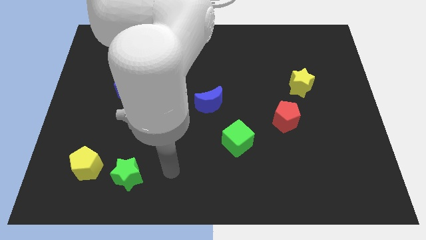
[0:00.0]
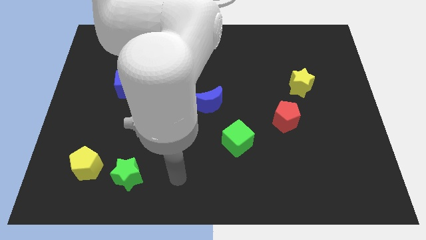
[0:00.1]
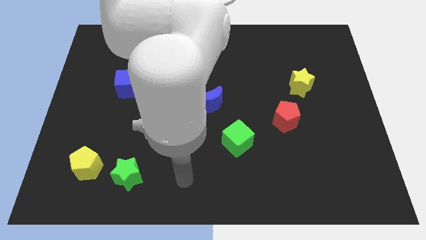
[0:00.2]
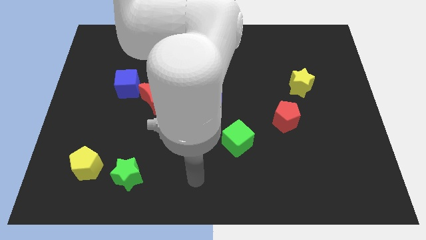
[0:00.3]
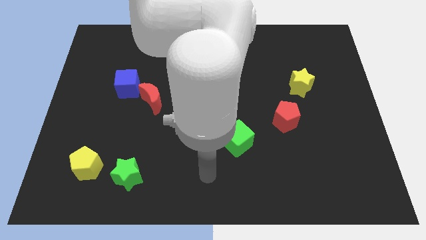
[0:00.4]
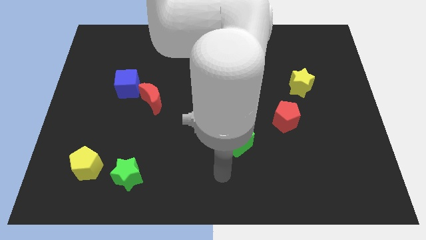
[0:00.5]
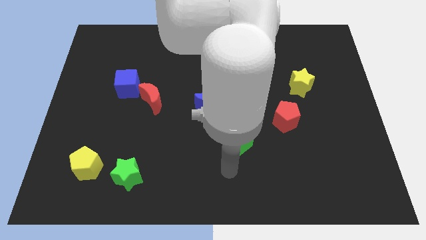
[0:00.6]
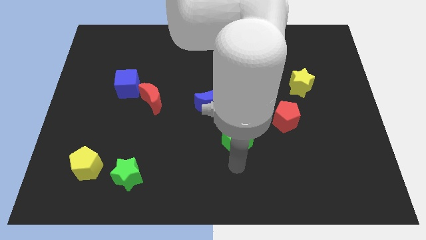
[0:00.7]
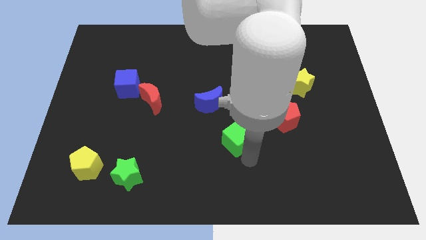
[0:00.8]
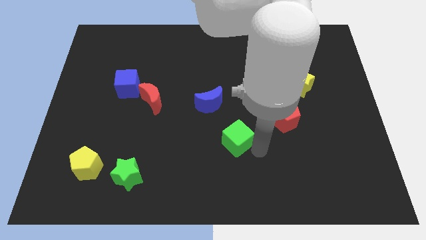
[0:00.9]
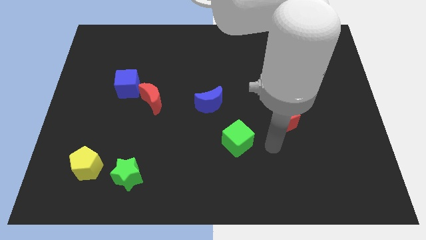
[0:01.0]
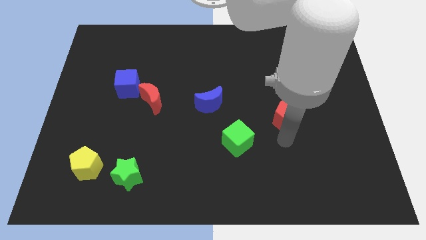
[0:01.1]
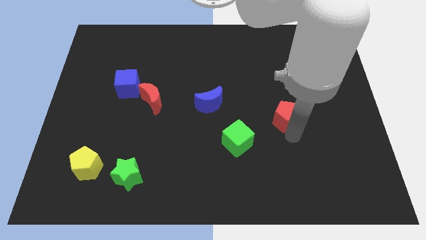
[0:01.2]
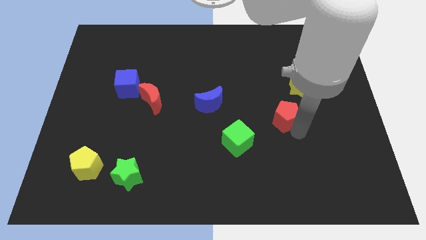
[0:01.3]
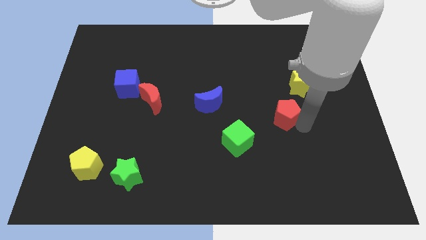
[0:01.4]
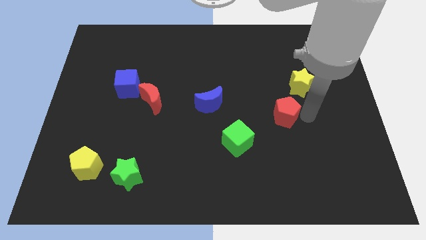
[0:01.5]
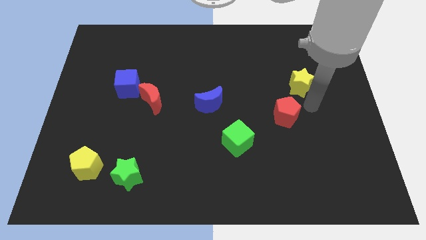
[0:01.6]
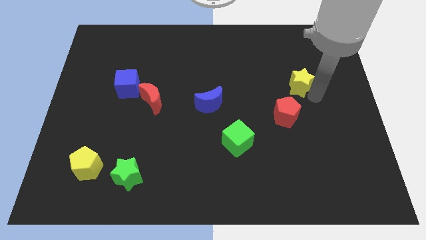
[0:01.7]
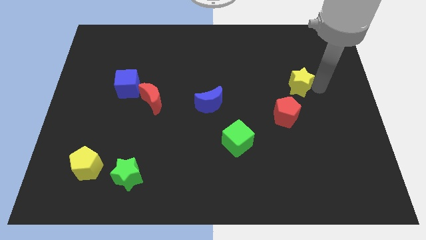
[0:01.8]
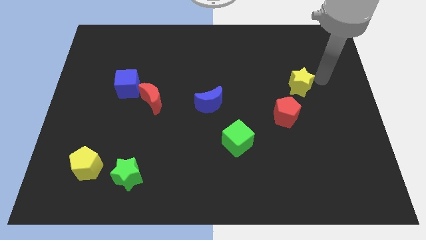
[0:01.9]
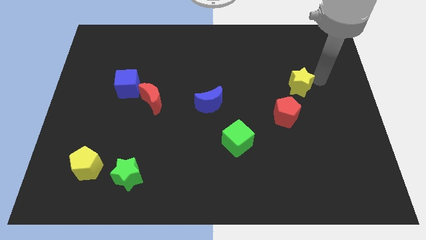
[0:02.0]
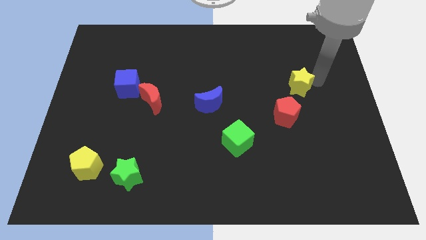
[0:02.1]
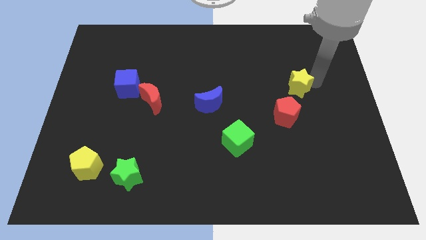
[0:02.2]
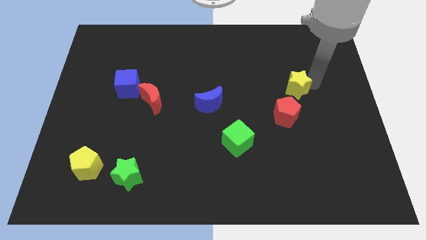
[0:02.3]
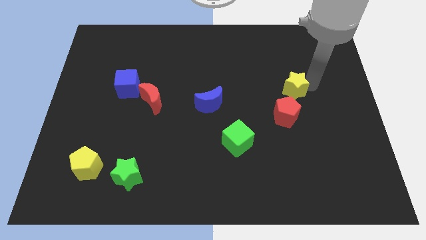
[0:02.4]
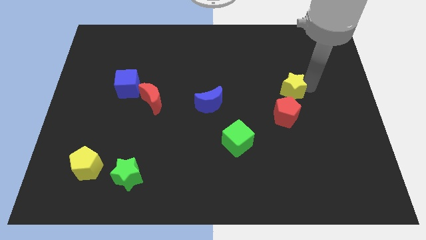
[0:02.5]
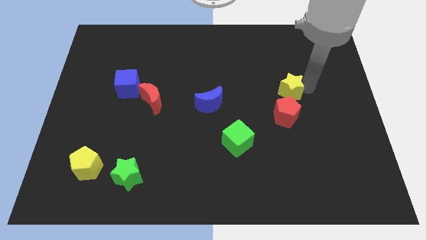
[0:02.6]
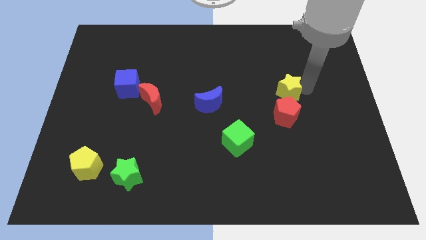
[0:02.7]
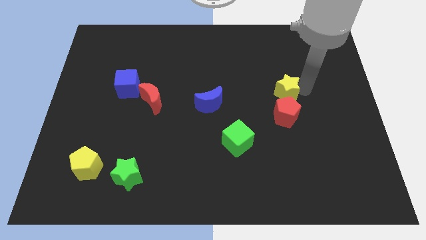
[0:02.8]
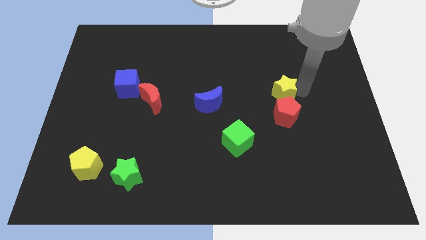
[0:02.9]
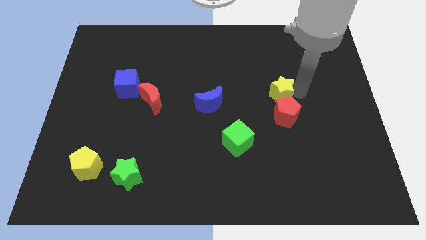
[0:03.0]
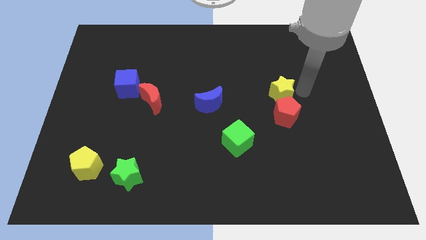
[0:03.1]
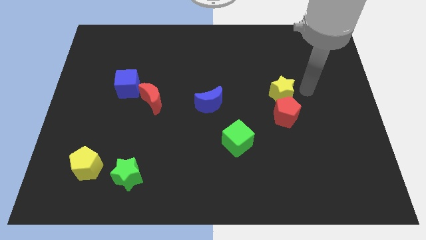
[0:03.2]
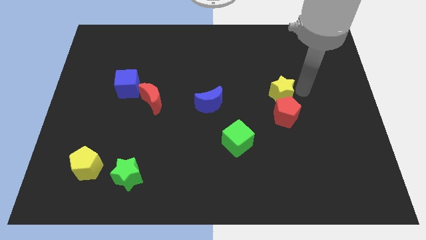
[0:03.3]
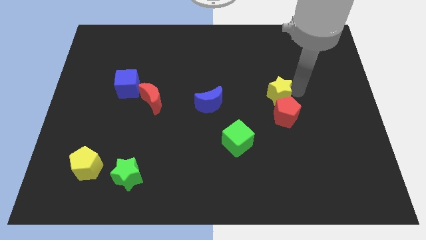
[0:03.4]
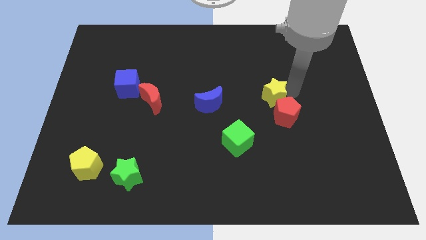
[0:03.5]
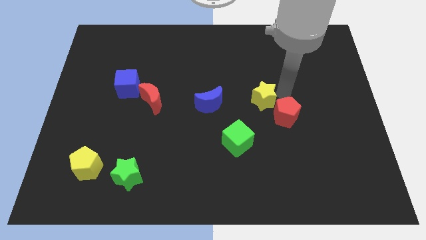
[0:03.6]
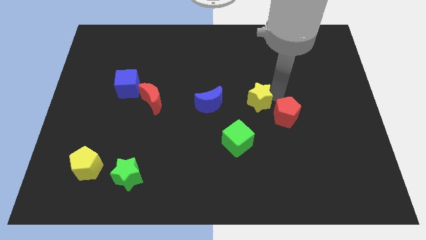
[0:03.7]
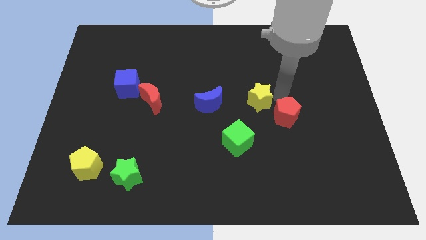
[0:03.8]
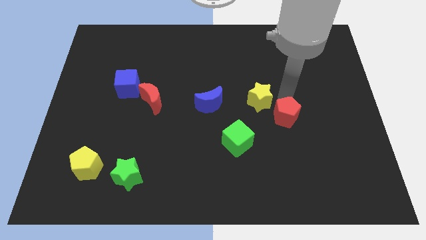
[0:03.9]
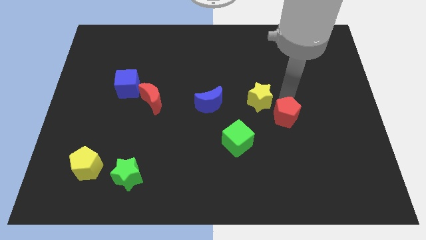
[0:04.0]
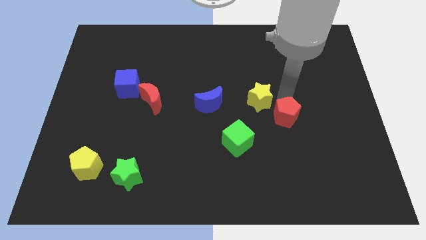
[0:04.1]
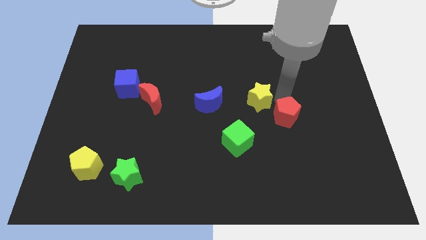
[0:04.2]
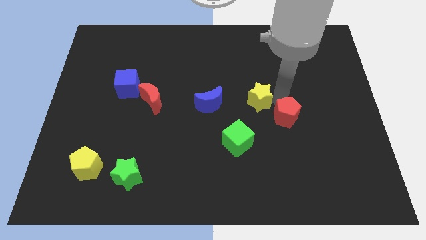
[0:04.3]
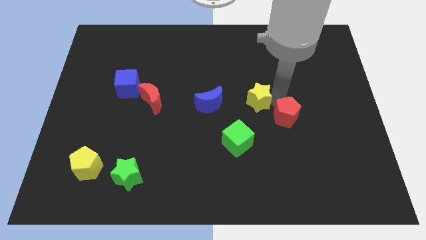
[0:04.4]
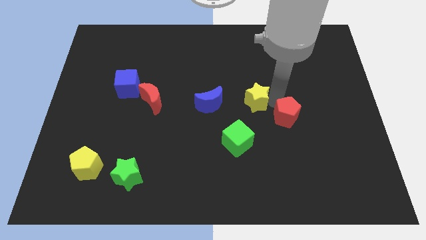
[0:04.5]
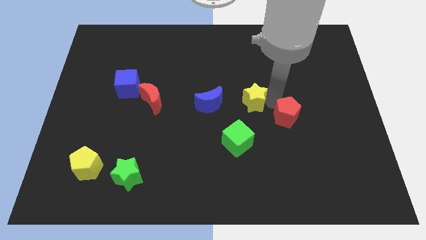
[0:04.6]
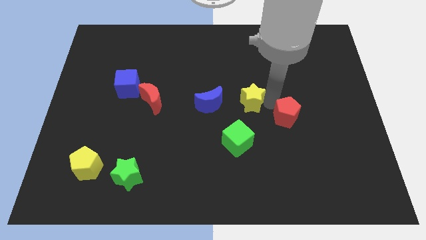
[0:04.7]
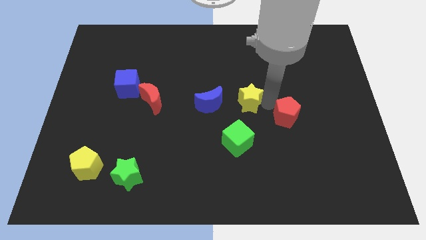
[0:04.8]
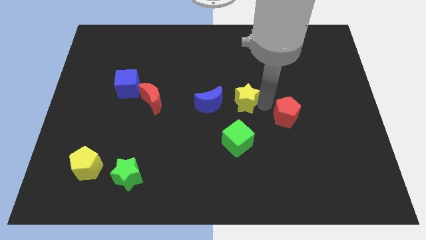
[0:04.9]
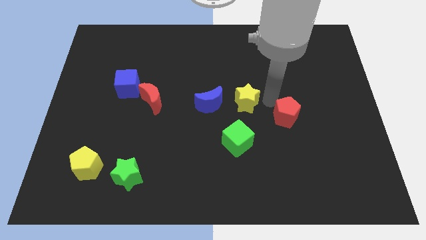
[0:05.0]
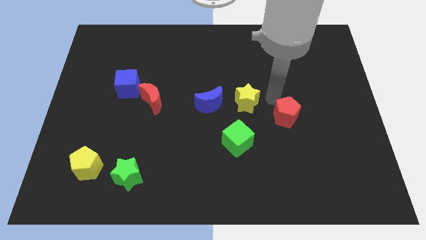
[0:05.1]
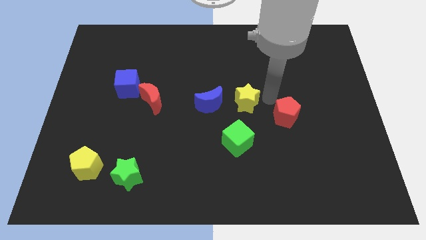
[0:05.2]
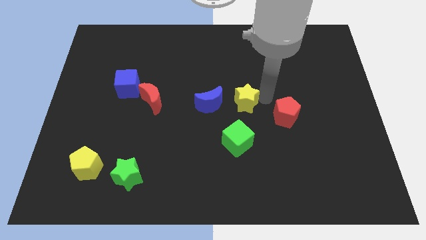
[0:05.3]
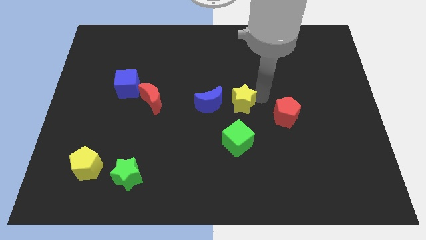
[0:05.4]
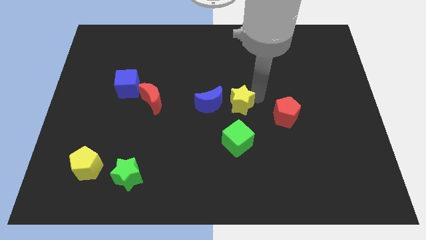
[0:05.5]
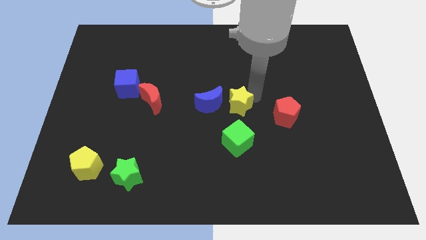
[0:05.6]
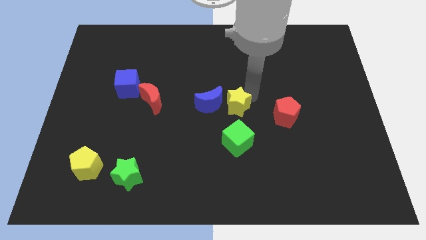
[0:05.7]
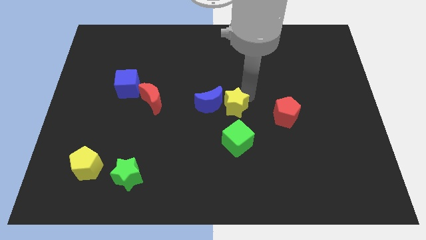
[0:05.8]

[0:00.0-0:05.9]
move the yellow star close to the blue moon

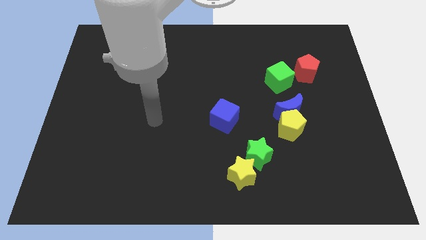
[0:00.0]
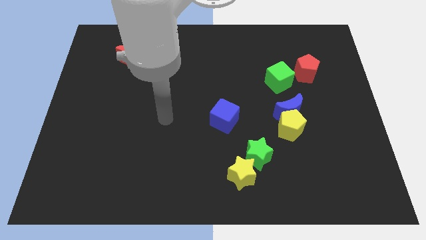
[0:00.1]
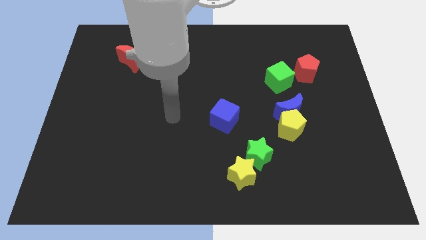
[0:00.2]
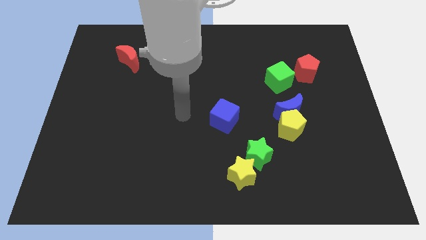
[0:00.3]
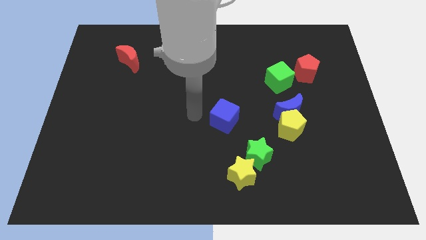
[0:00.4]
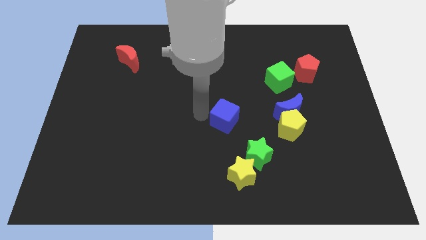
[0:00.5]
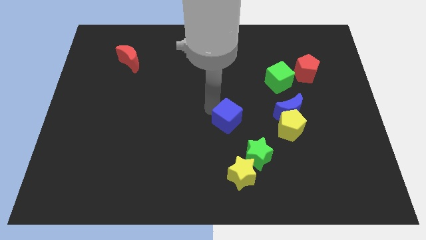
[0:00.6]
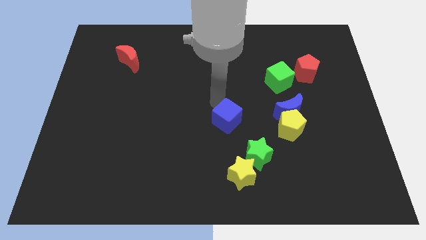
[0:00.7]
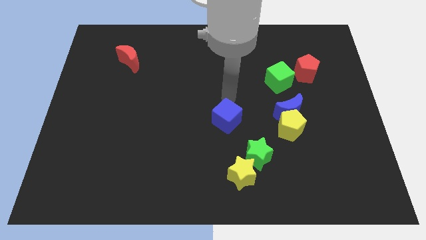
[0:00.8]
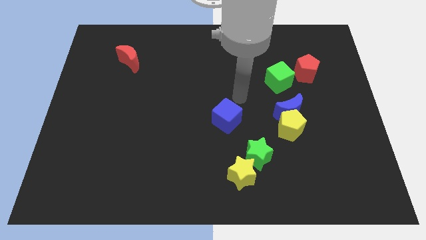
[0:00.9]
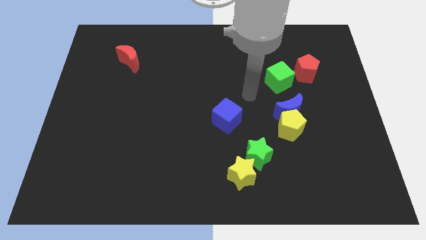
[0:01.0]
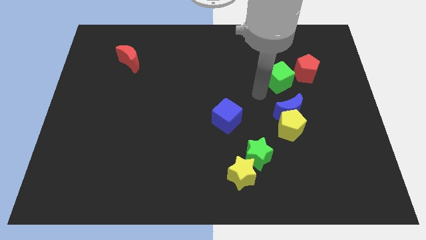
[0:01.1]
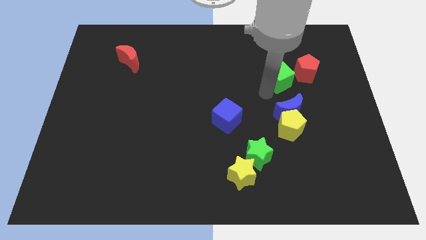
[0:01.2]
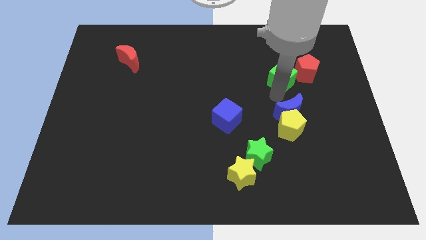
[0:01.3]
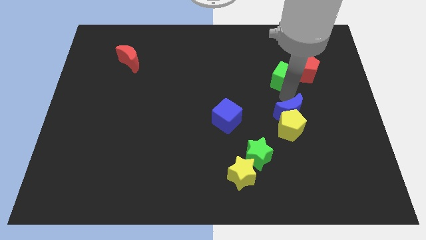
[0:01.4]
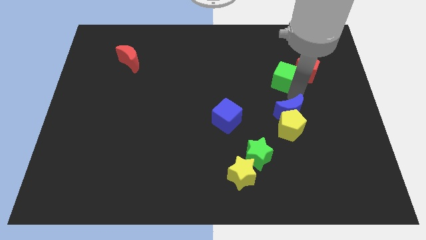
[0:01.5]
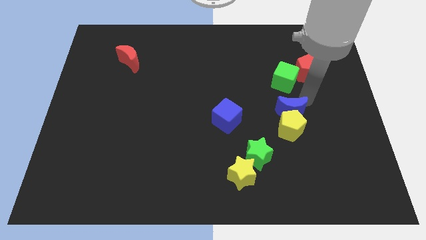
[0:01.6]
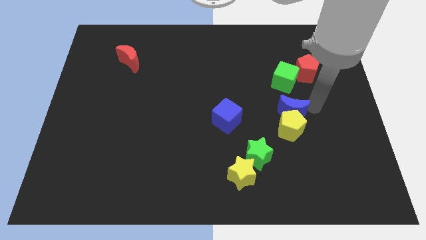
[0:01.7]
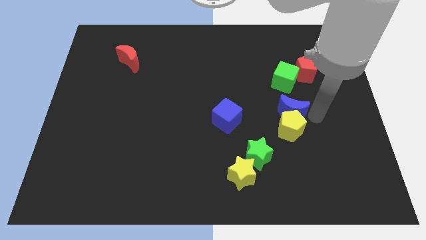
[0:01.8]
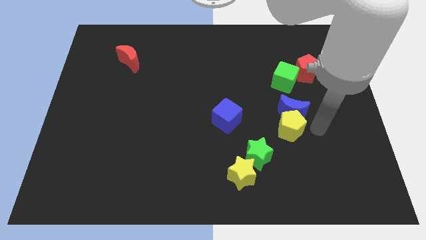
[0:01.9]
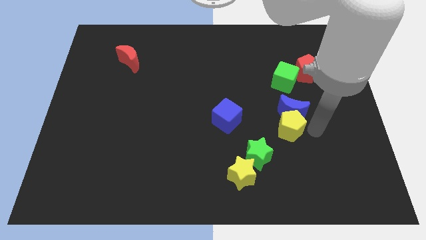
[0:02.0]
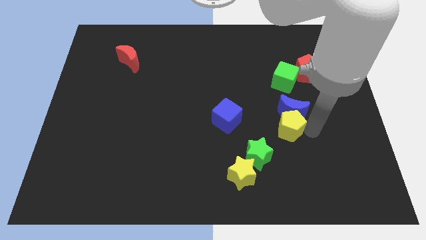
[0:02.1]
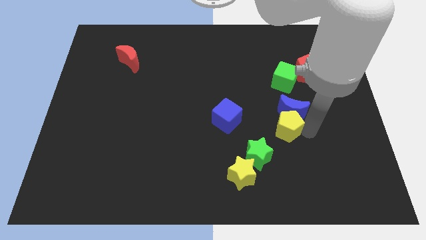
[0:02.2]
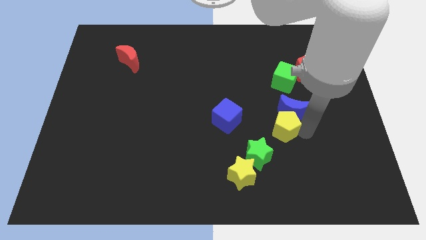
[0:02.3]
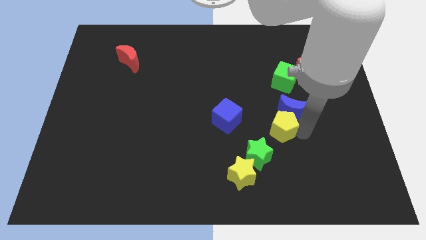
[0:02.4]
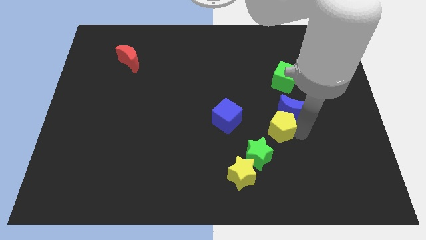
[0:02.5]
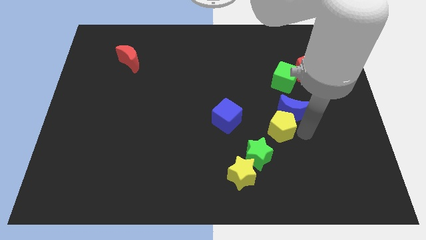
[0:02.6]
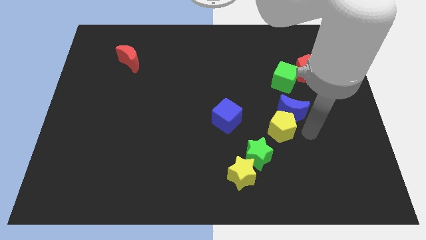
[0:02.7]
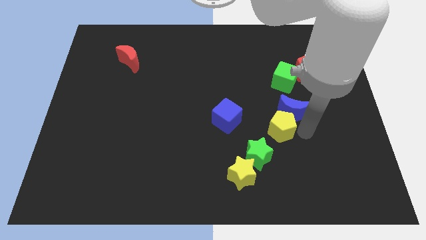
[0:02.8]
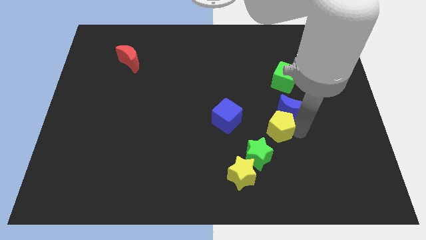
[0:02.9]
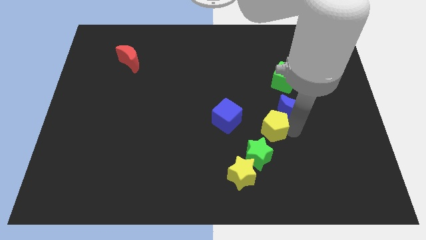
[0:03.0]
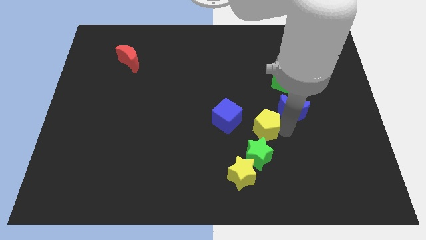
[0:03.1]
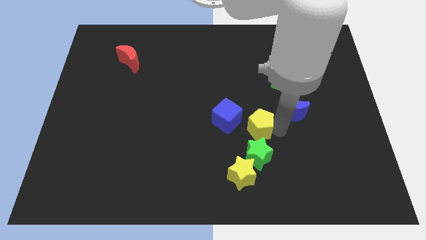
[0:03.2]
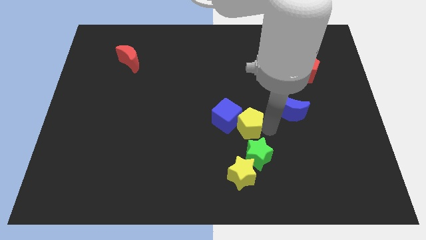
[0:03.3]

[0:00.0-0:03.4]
put the yellow pentagon next to the blue cube
